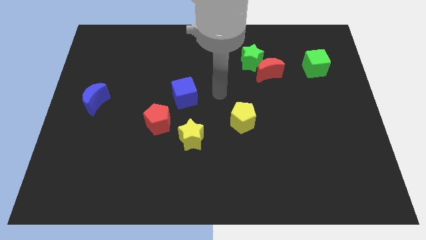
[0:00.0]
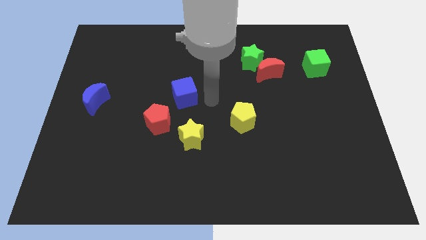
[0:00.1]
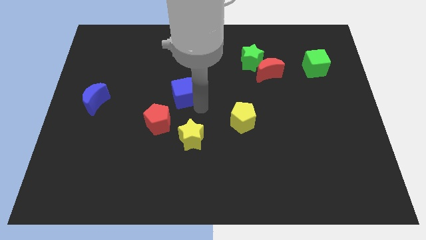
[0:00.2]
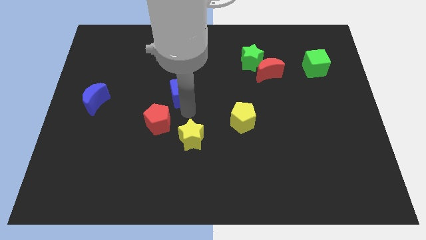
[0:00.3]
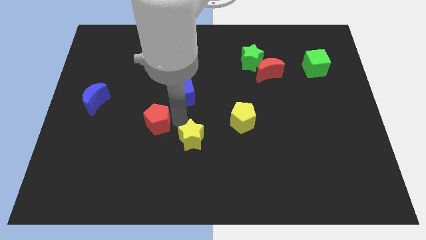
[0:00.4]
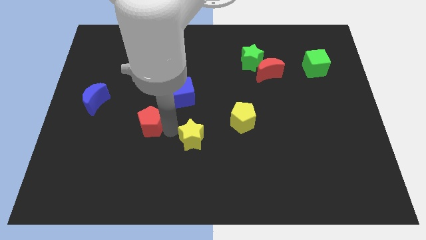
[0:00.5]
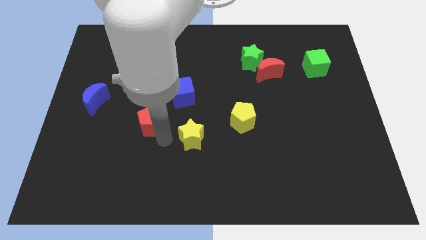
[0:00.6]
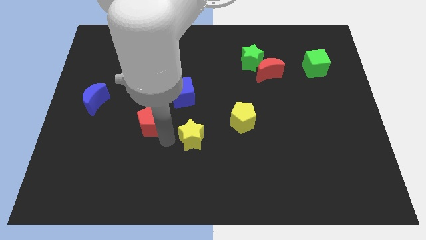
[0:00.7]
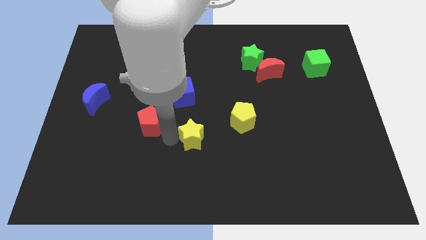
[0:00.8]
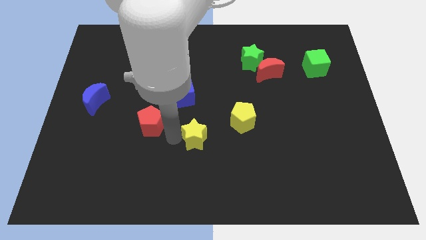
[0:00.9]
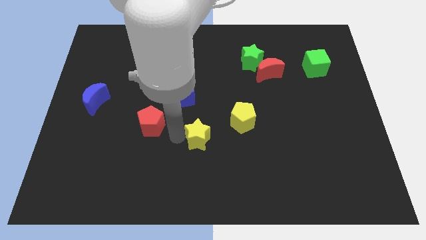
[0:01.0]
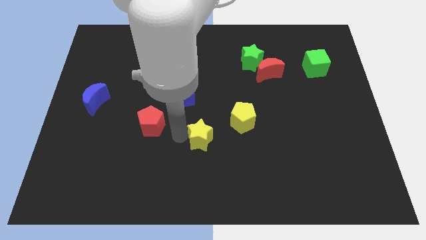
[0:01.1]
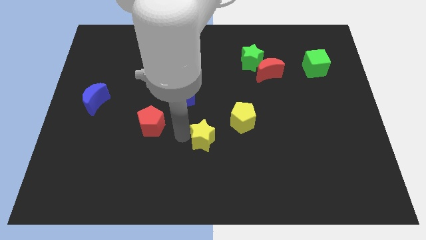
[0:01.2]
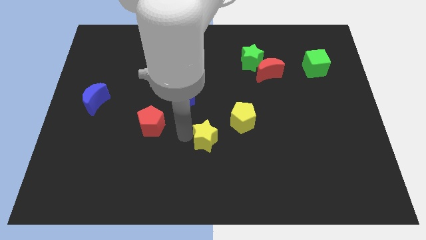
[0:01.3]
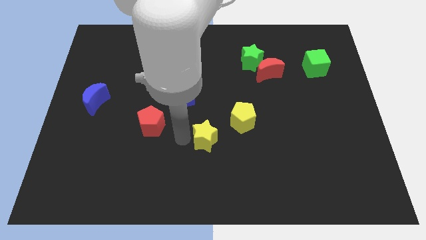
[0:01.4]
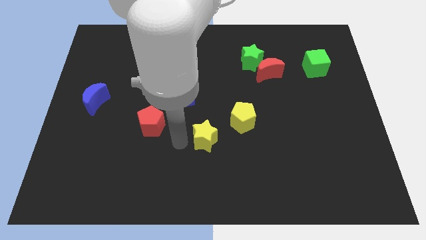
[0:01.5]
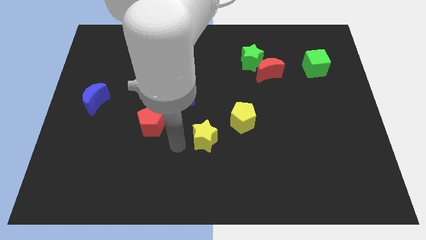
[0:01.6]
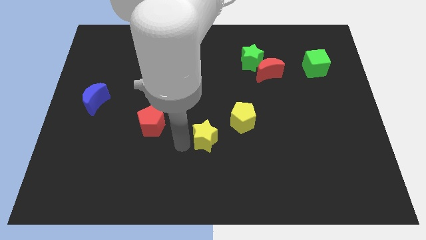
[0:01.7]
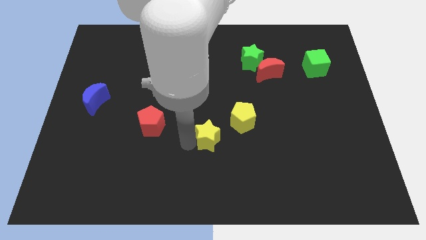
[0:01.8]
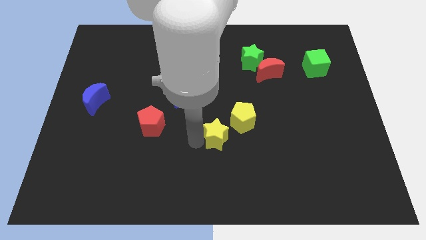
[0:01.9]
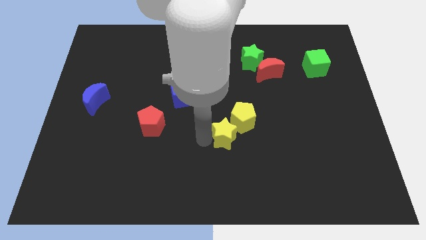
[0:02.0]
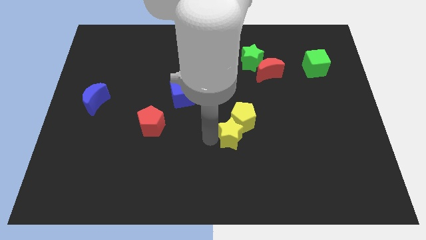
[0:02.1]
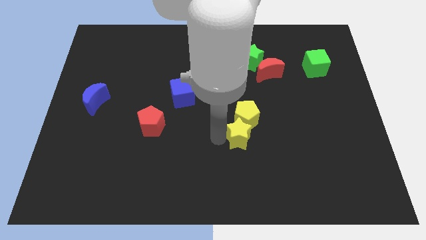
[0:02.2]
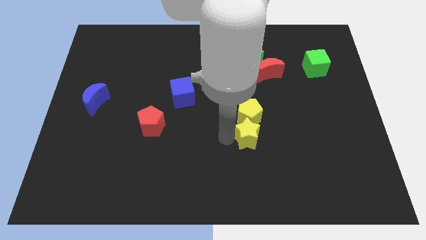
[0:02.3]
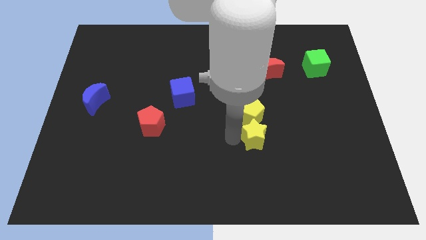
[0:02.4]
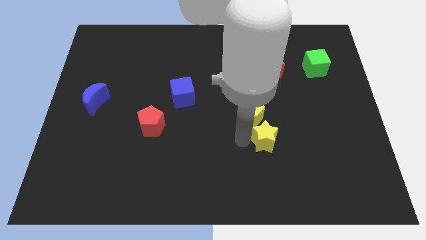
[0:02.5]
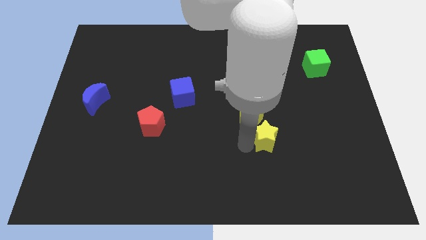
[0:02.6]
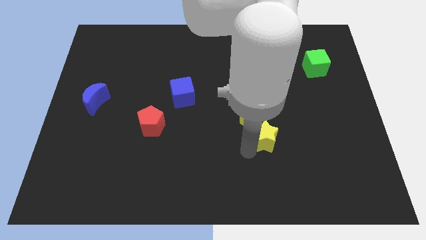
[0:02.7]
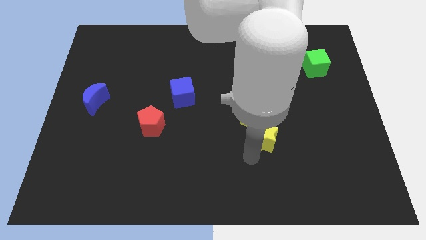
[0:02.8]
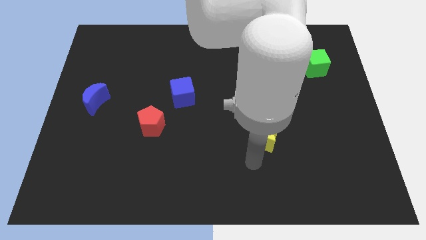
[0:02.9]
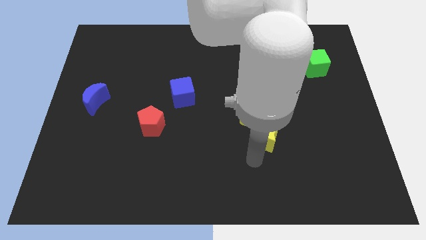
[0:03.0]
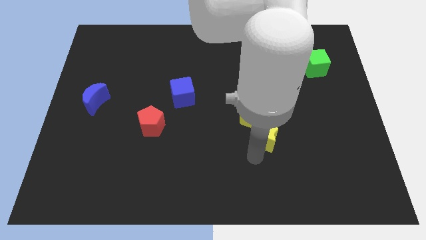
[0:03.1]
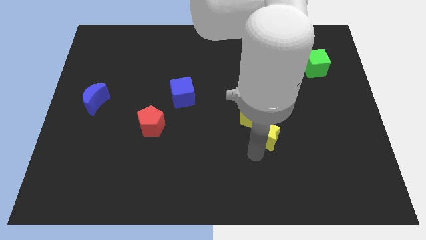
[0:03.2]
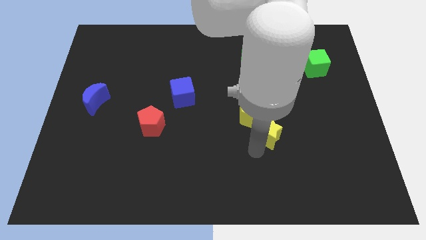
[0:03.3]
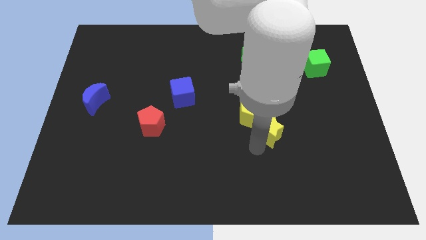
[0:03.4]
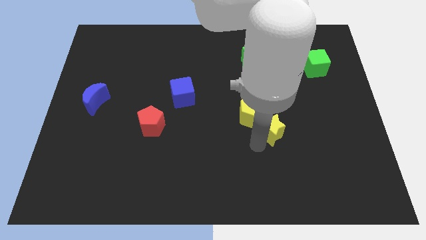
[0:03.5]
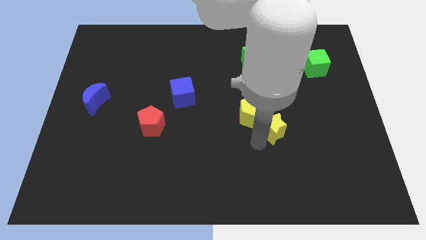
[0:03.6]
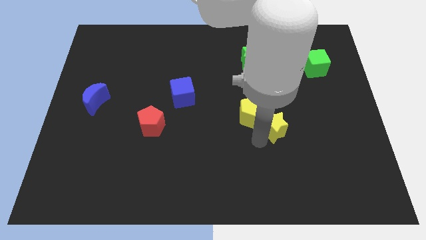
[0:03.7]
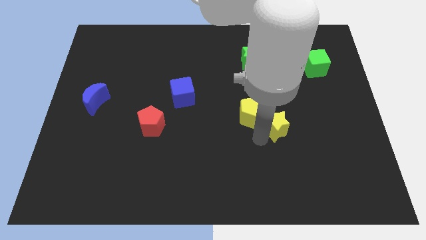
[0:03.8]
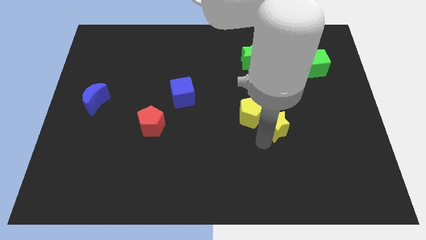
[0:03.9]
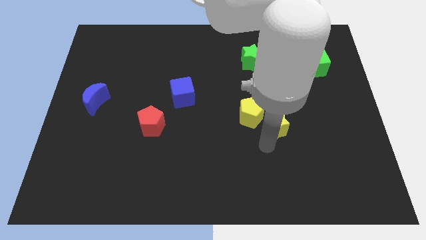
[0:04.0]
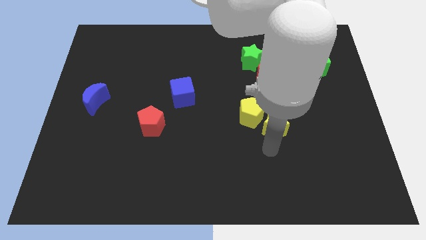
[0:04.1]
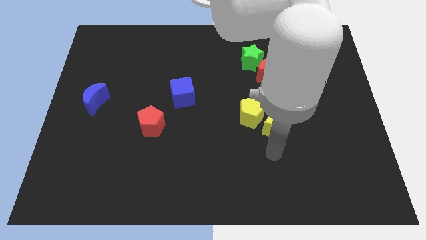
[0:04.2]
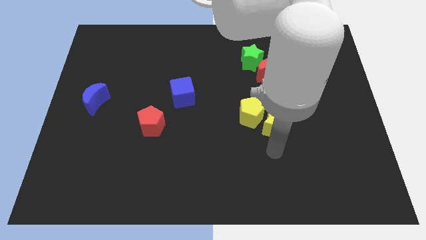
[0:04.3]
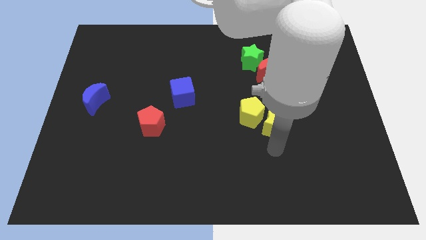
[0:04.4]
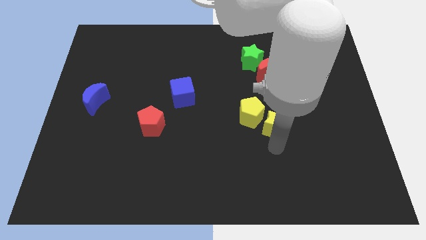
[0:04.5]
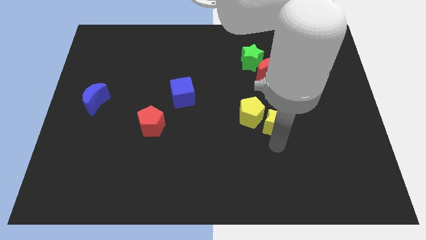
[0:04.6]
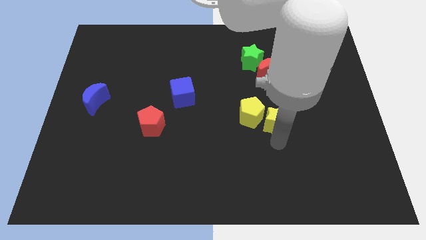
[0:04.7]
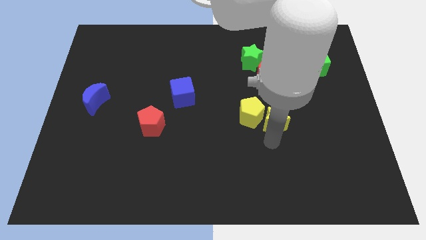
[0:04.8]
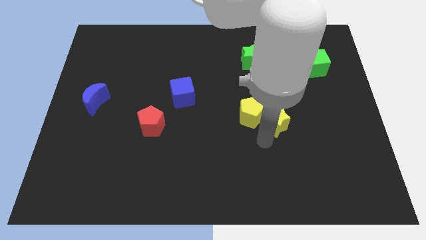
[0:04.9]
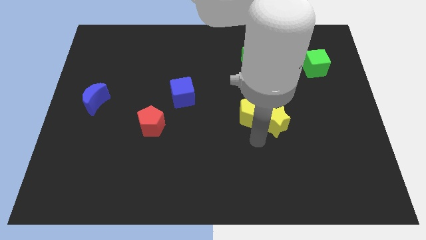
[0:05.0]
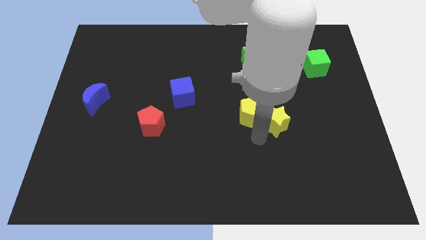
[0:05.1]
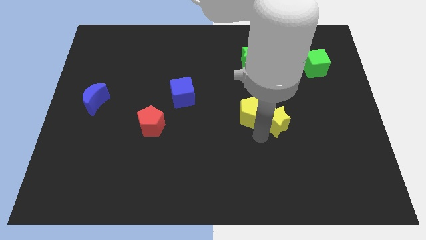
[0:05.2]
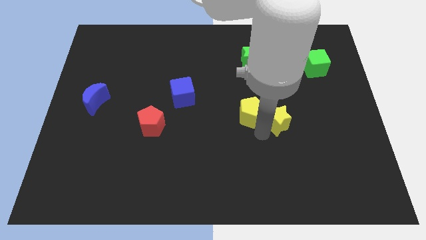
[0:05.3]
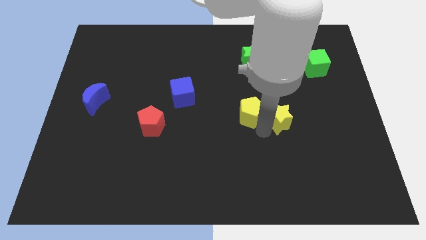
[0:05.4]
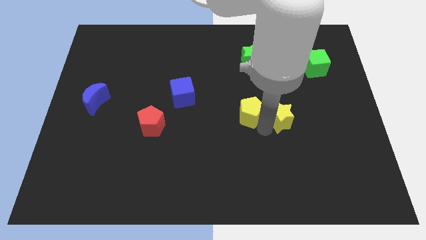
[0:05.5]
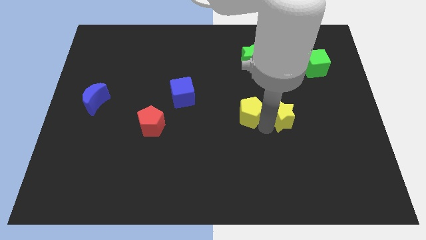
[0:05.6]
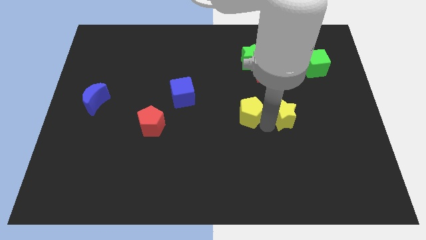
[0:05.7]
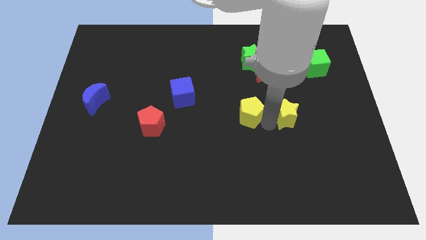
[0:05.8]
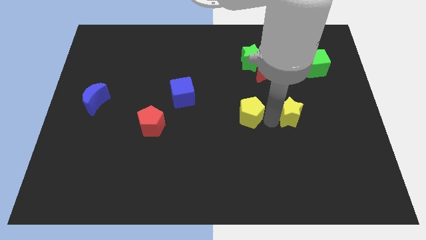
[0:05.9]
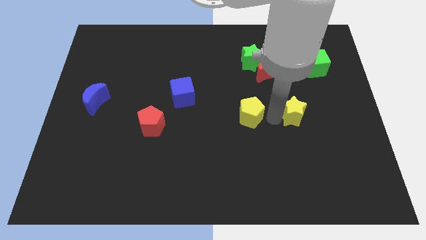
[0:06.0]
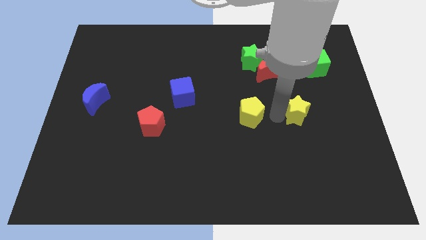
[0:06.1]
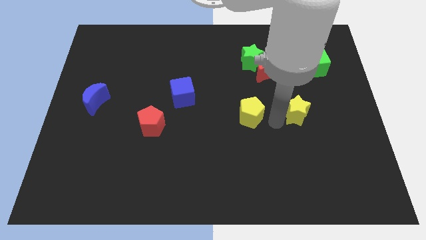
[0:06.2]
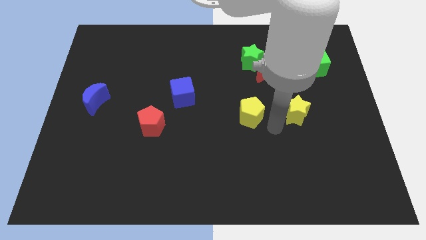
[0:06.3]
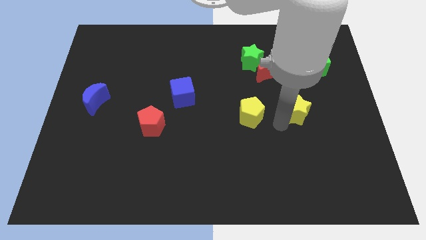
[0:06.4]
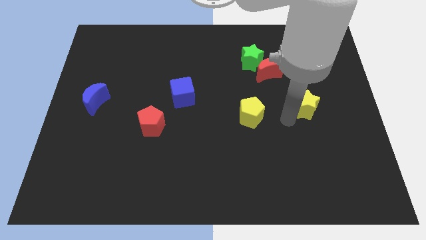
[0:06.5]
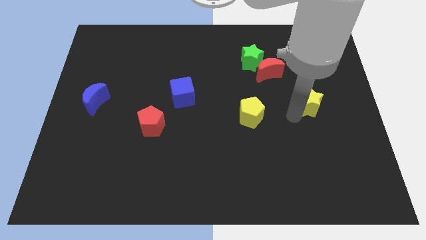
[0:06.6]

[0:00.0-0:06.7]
push the yellow star to the bottom side of the green cube
